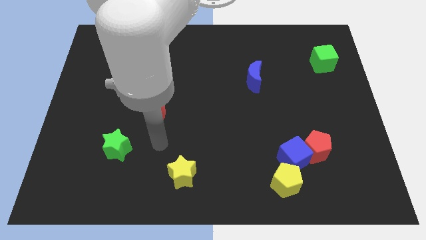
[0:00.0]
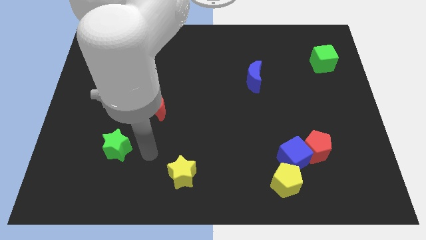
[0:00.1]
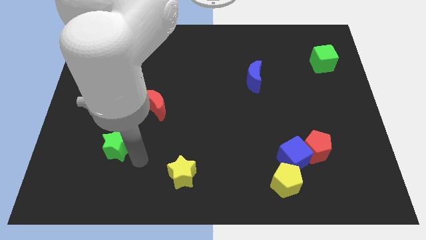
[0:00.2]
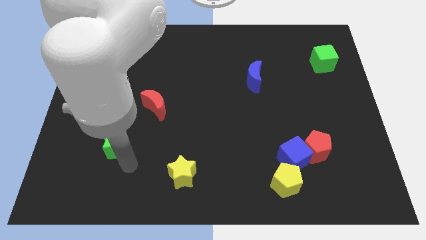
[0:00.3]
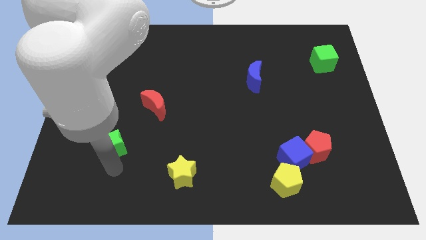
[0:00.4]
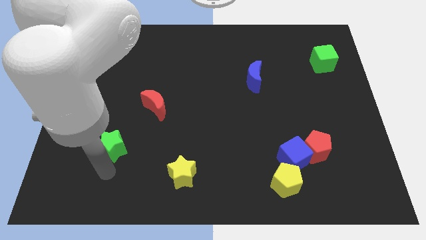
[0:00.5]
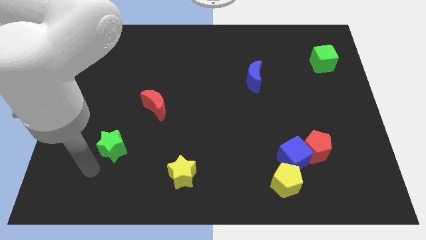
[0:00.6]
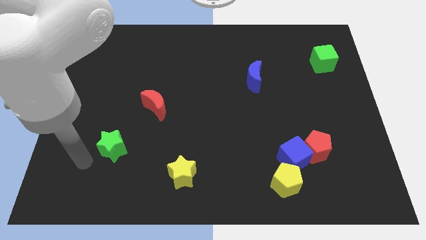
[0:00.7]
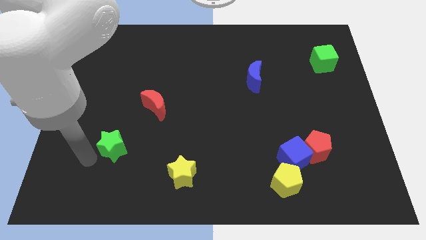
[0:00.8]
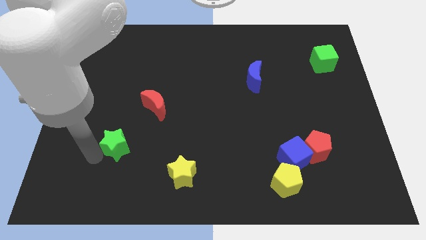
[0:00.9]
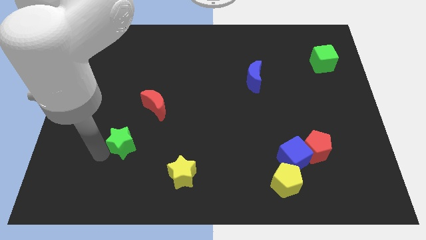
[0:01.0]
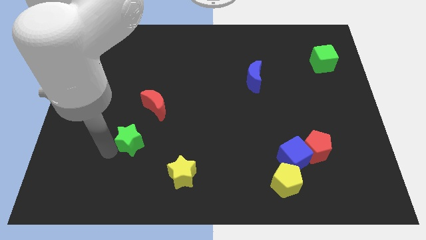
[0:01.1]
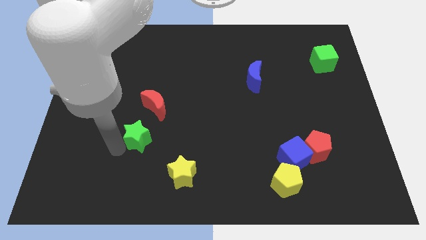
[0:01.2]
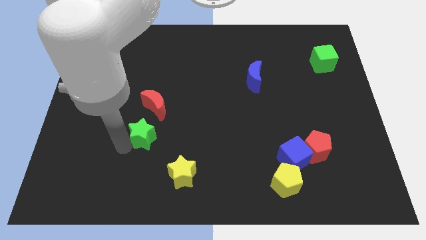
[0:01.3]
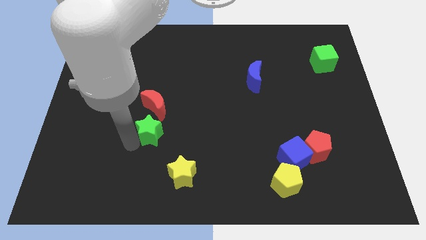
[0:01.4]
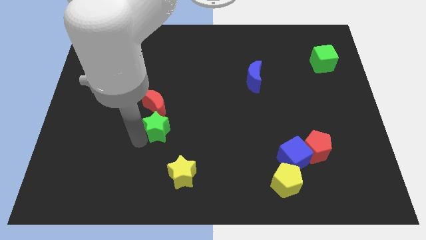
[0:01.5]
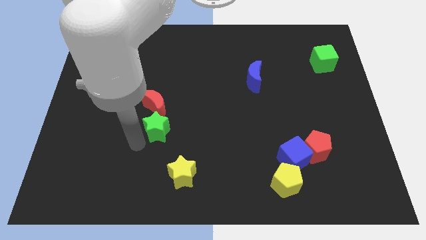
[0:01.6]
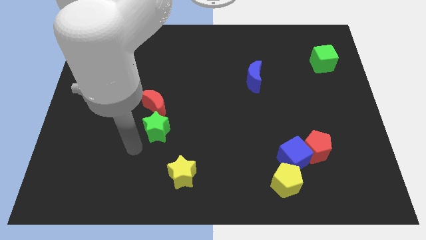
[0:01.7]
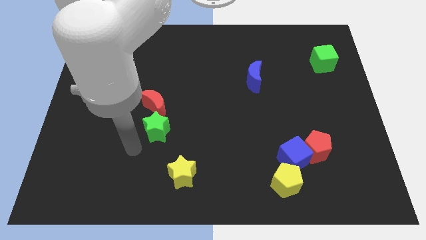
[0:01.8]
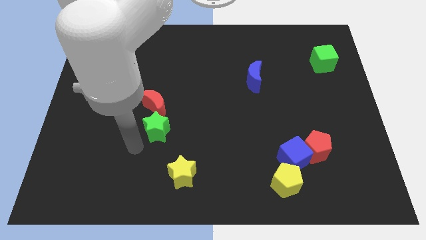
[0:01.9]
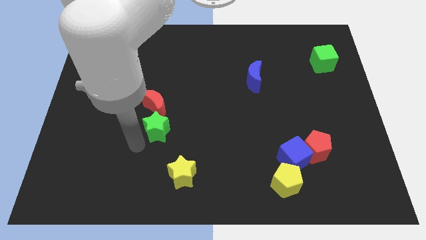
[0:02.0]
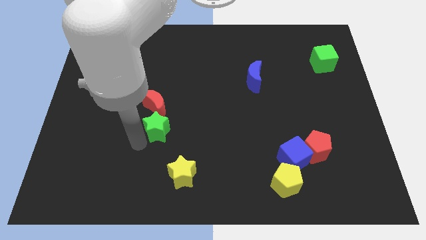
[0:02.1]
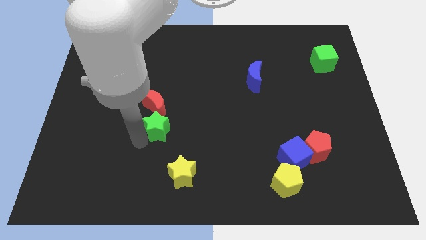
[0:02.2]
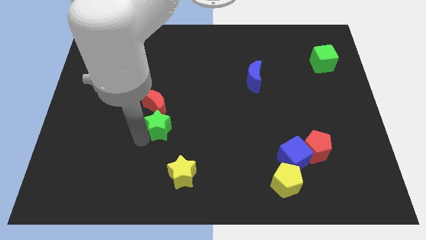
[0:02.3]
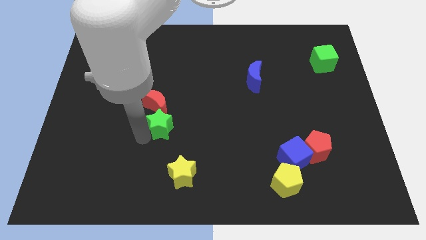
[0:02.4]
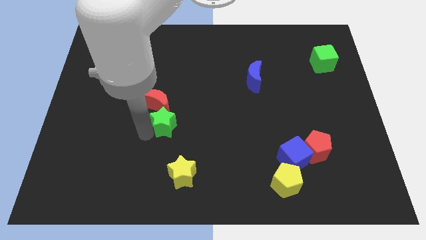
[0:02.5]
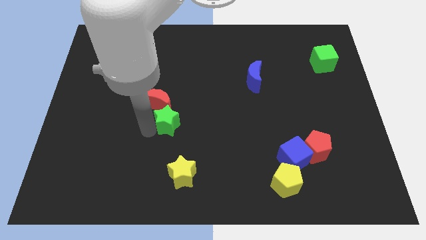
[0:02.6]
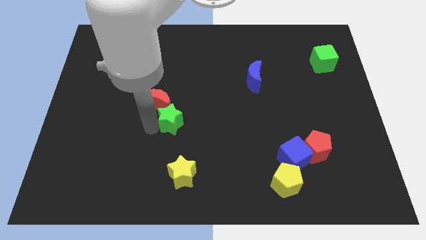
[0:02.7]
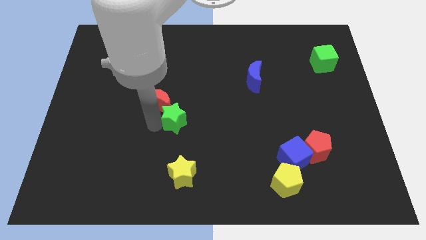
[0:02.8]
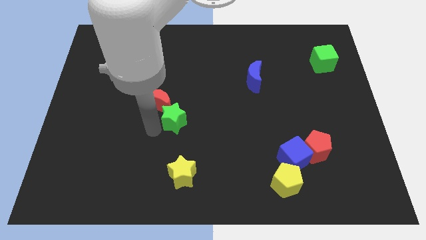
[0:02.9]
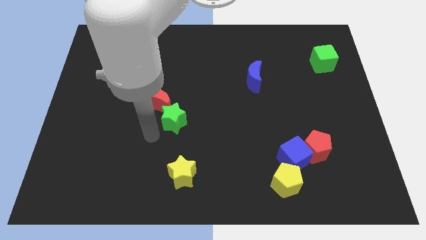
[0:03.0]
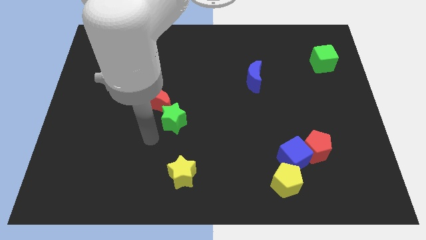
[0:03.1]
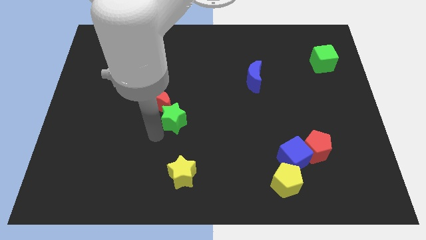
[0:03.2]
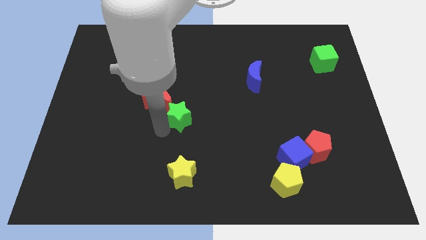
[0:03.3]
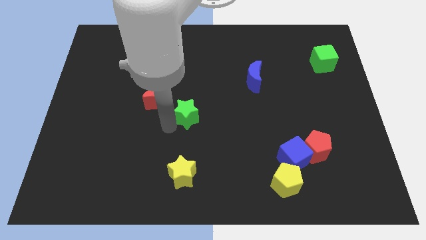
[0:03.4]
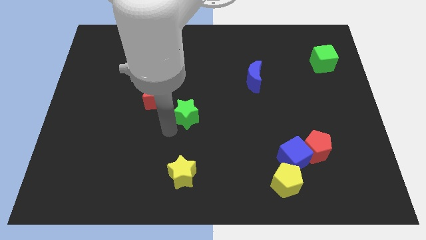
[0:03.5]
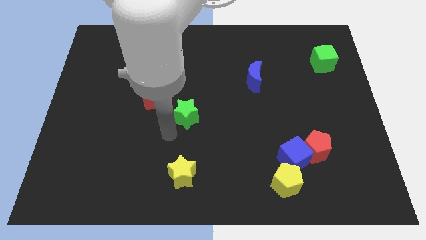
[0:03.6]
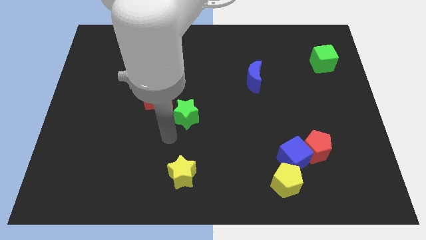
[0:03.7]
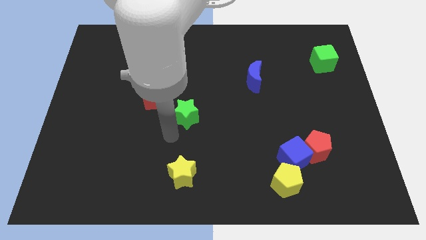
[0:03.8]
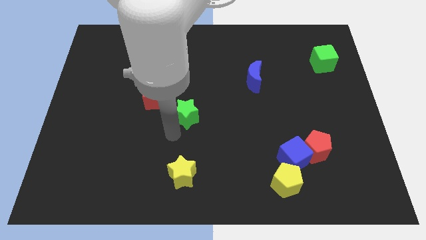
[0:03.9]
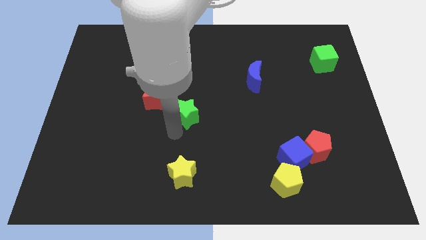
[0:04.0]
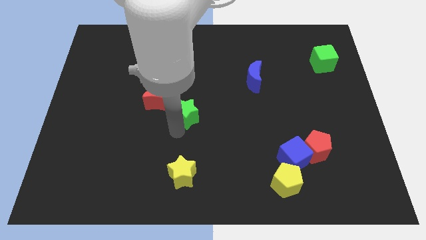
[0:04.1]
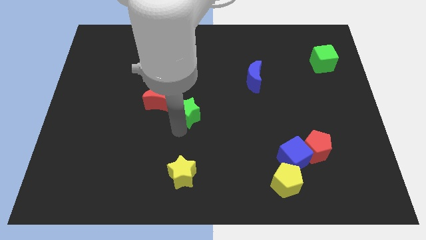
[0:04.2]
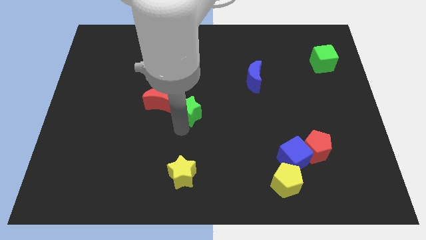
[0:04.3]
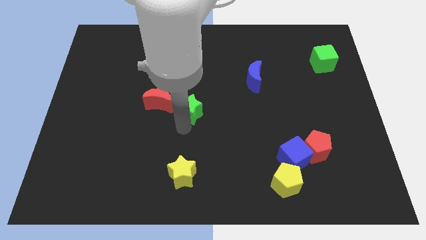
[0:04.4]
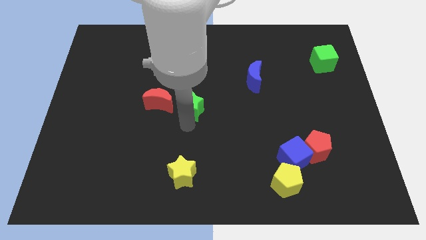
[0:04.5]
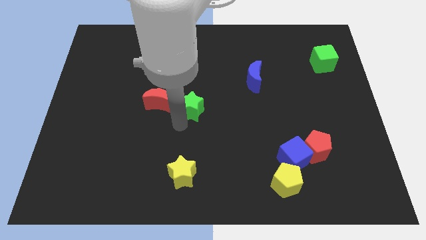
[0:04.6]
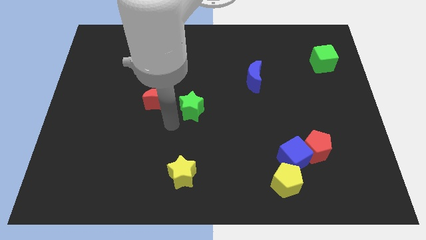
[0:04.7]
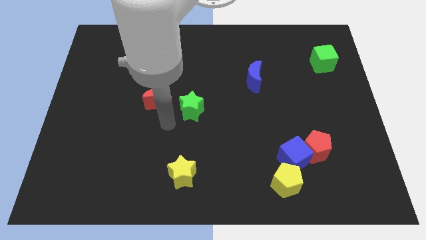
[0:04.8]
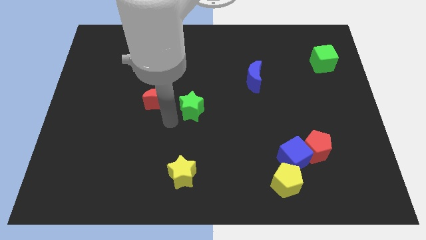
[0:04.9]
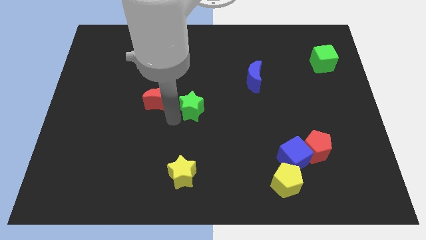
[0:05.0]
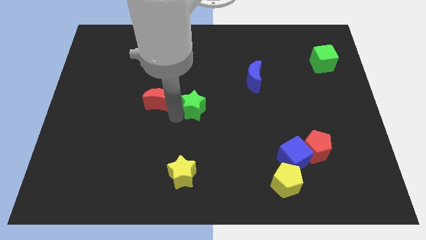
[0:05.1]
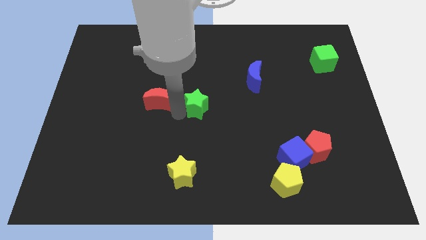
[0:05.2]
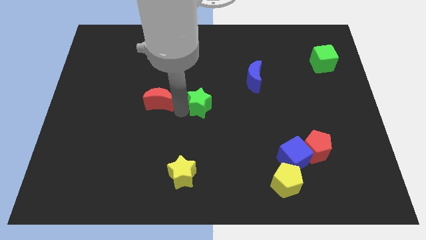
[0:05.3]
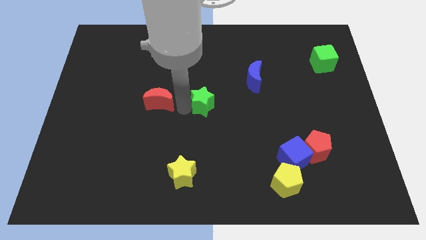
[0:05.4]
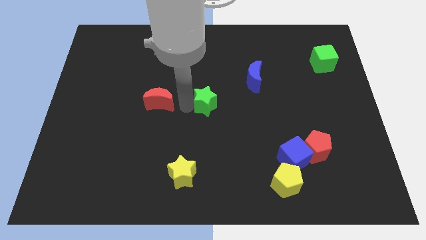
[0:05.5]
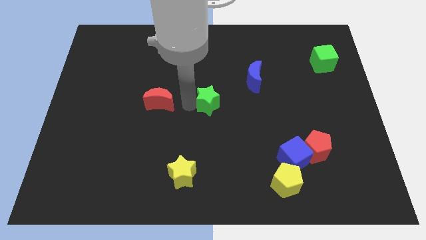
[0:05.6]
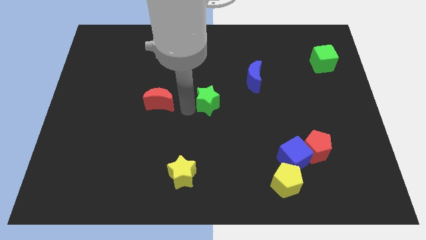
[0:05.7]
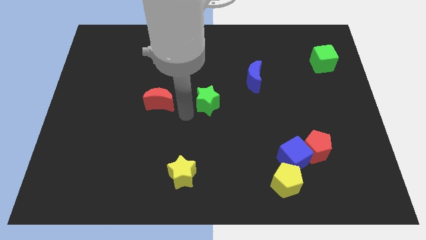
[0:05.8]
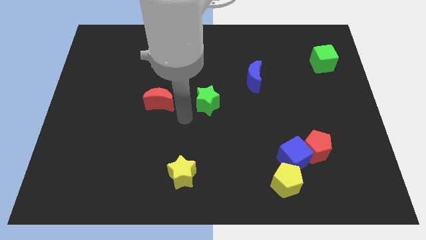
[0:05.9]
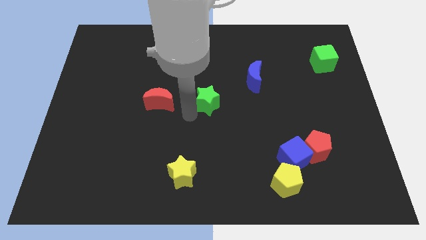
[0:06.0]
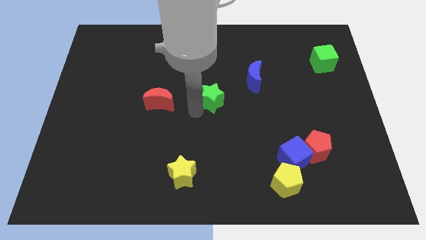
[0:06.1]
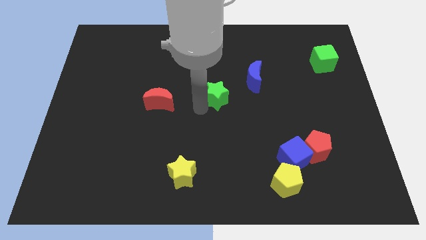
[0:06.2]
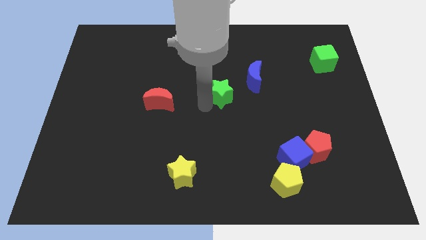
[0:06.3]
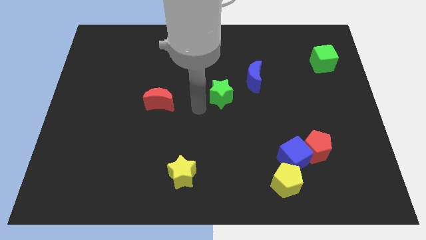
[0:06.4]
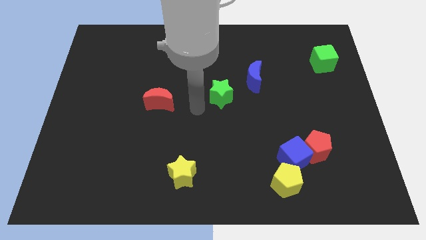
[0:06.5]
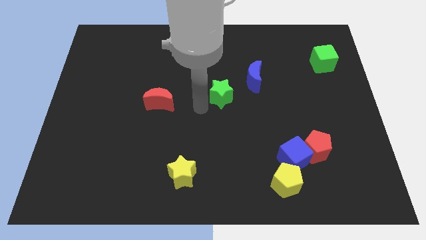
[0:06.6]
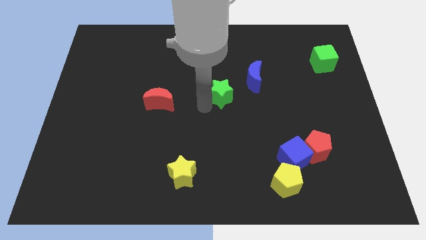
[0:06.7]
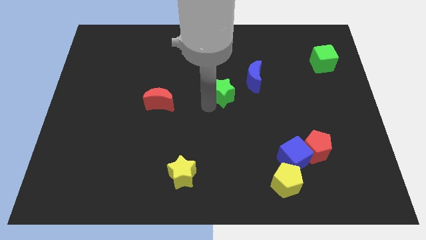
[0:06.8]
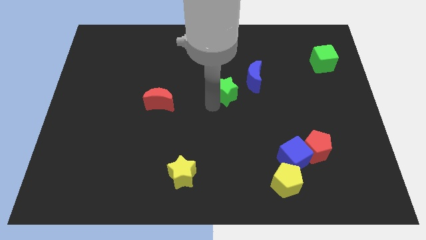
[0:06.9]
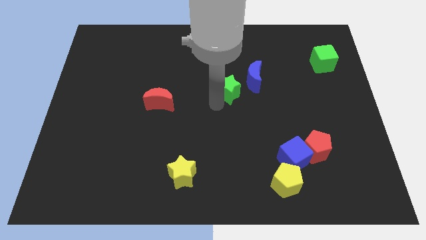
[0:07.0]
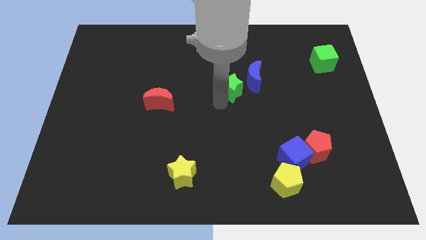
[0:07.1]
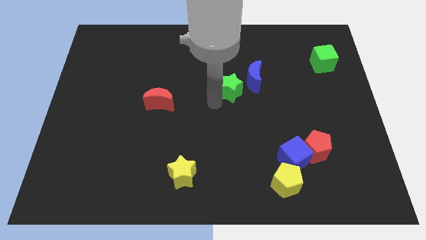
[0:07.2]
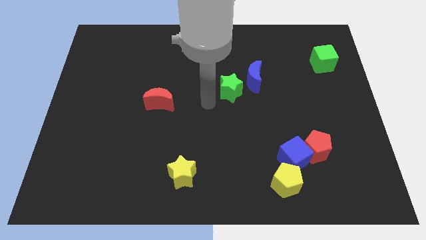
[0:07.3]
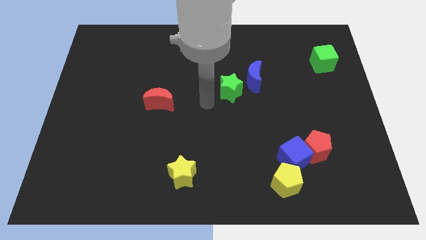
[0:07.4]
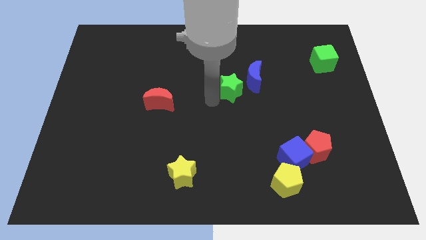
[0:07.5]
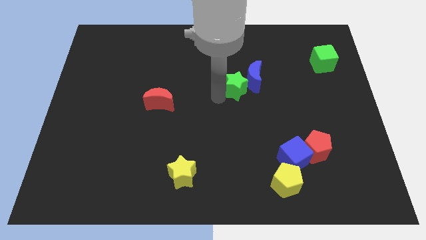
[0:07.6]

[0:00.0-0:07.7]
slide the green star towards the blue moon
